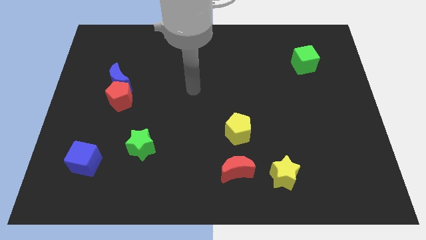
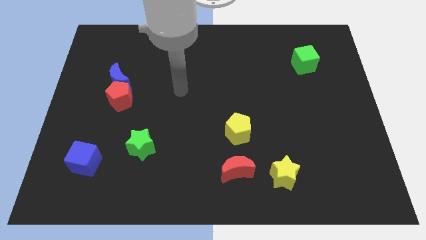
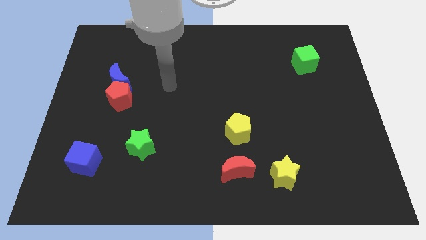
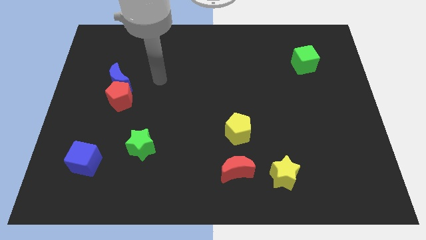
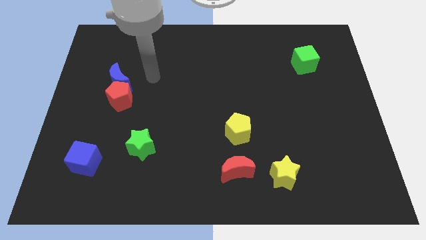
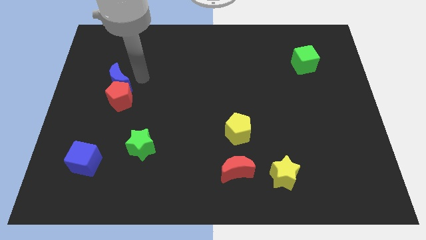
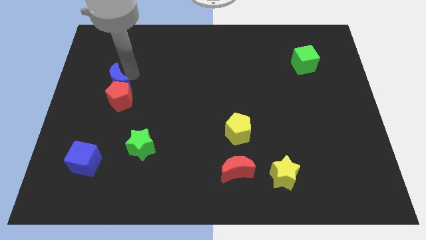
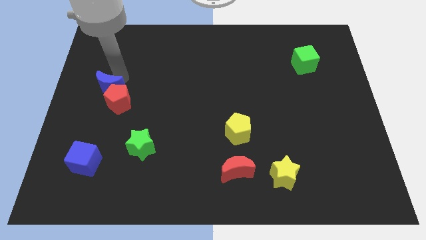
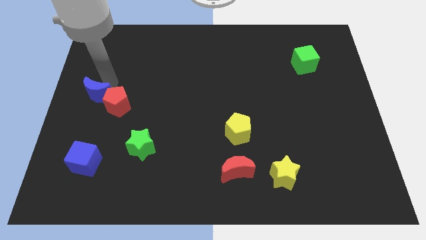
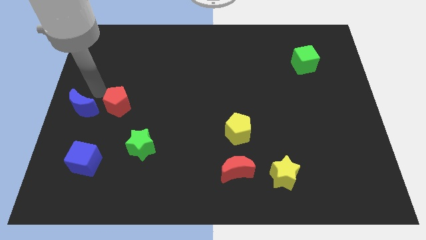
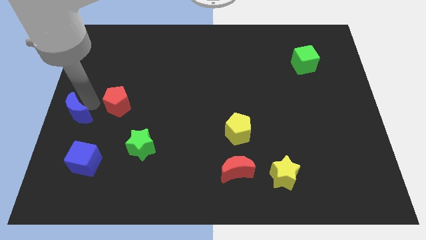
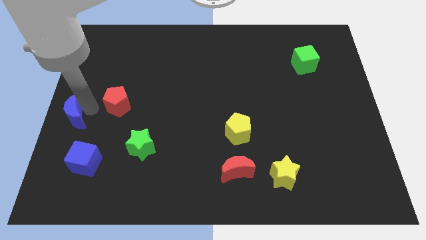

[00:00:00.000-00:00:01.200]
pull the red pentagon apart from the blue moon

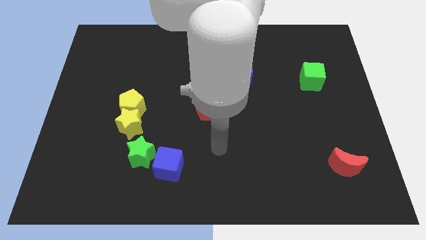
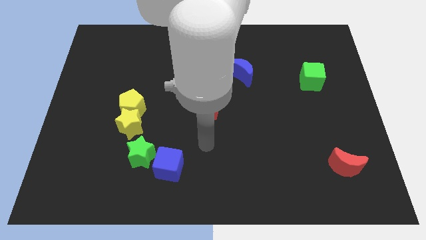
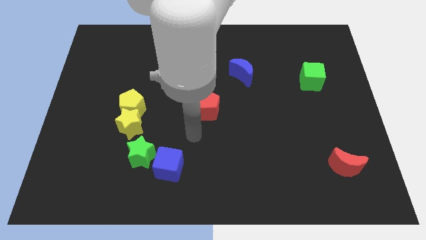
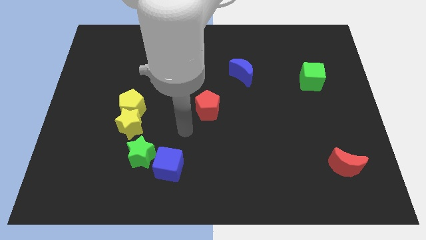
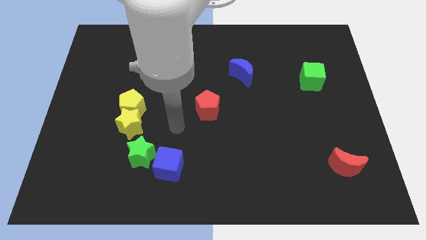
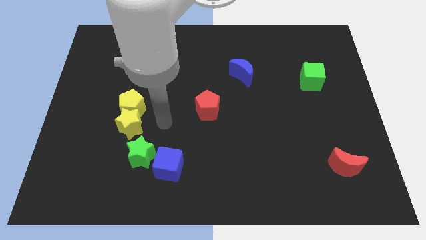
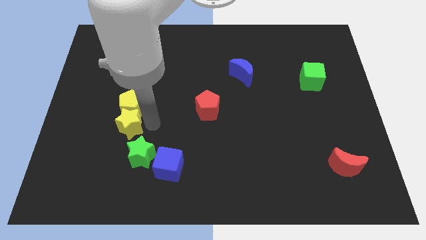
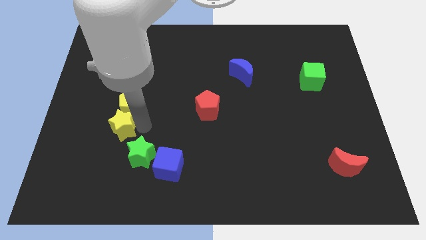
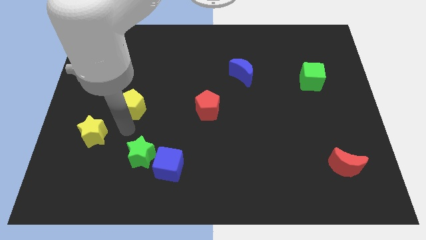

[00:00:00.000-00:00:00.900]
move the yellow pentagon away from the yellow star

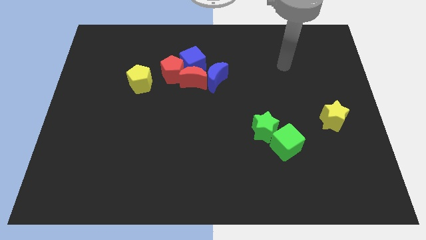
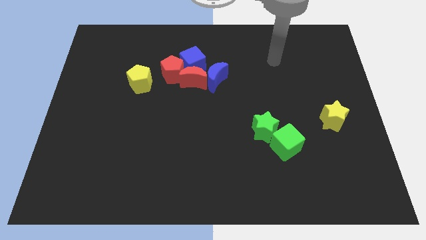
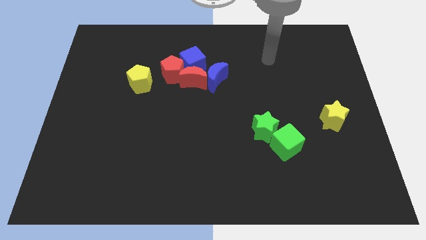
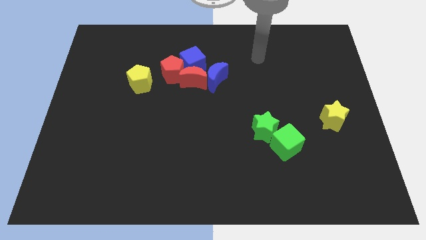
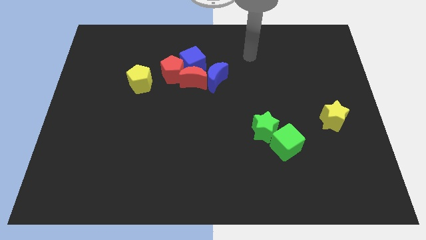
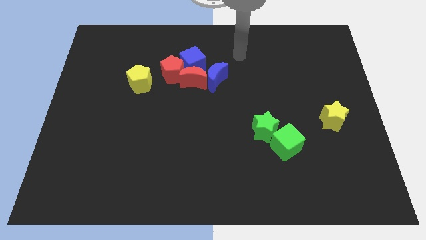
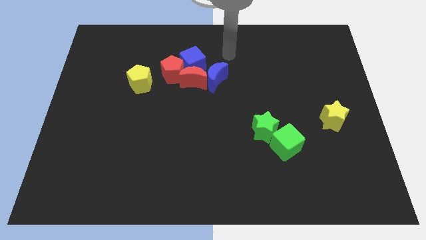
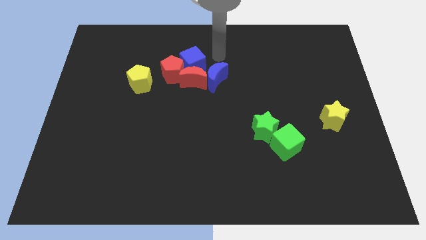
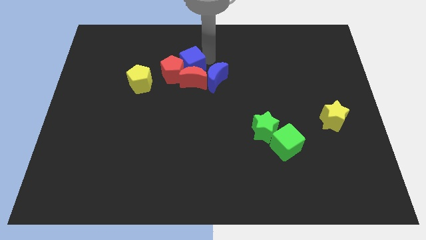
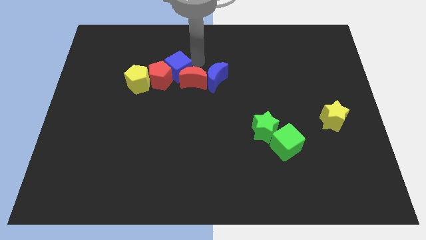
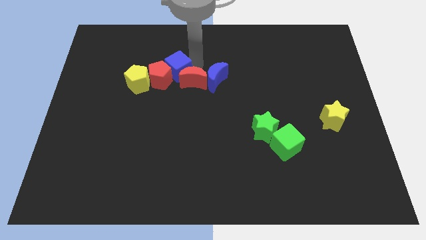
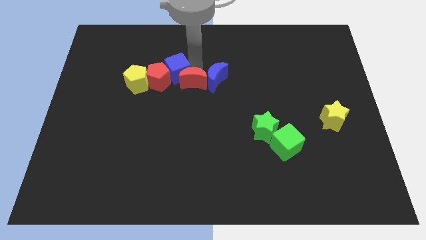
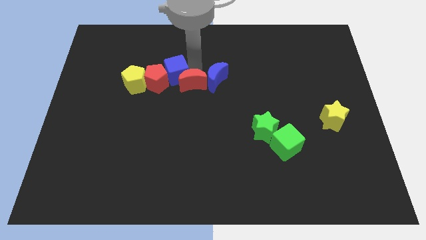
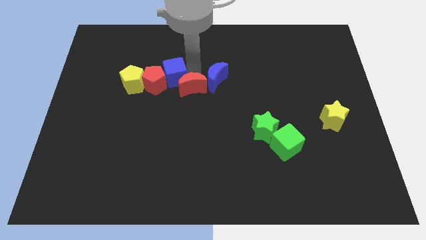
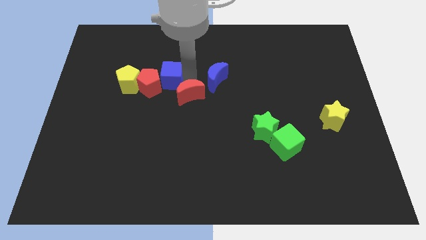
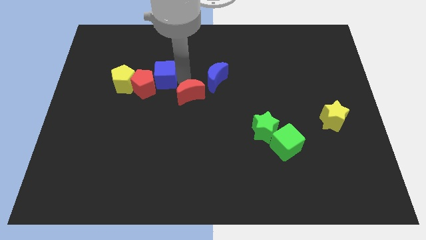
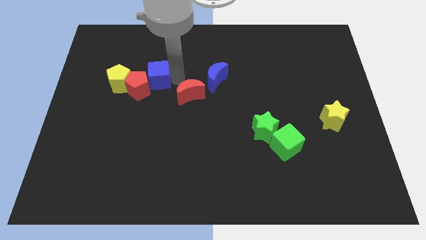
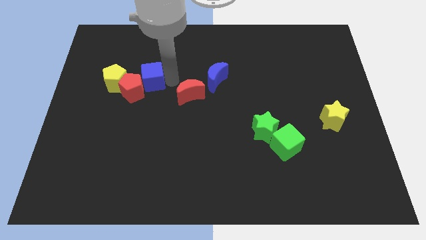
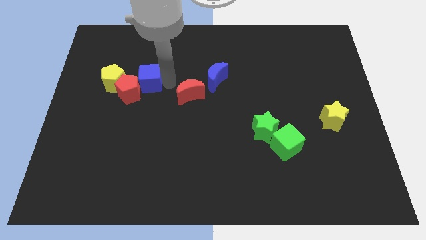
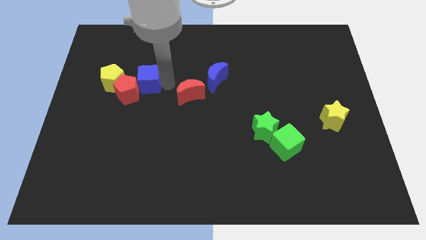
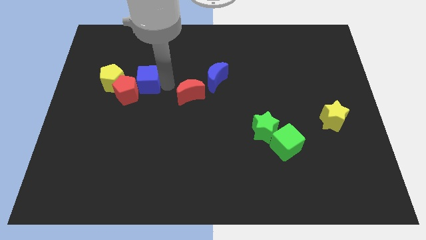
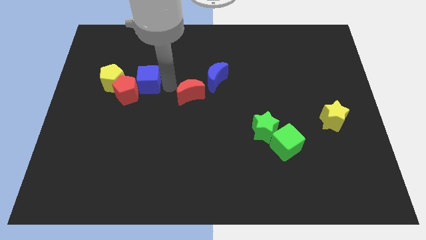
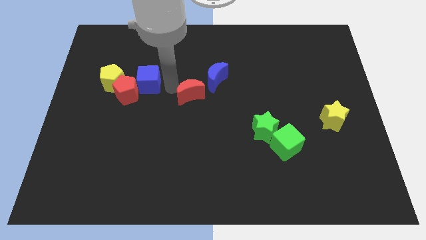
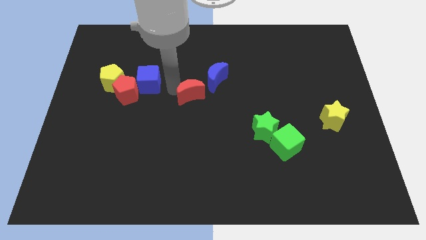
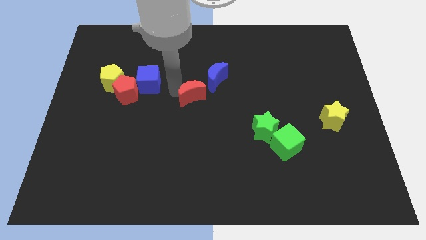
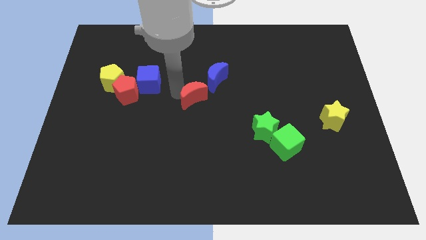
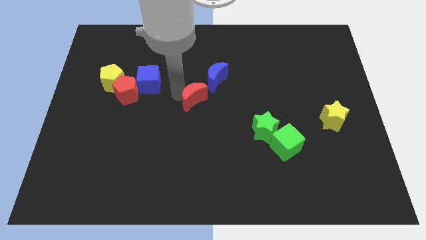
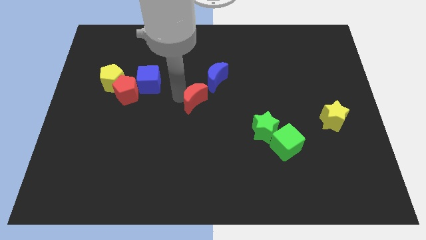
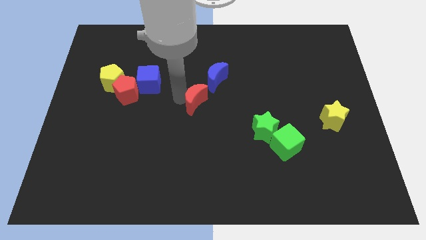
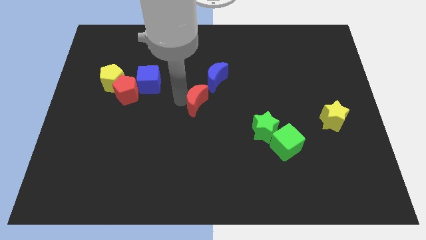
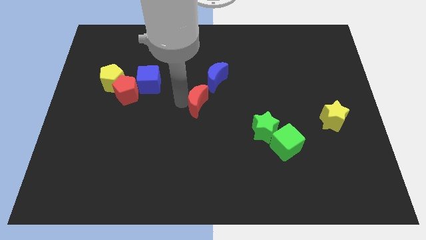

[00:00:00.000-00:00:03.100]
move the red moon away from the blue moon, blue cube, and red pentagon

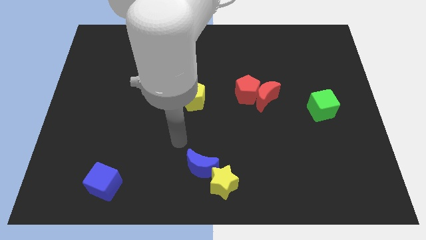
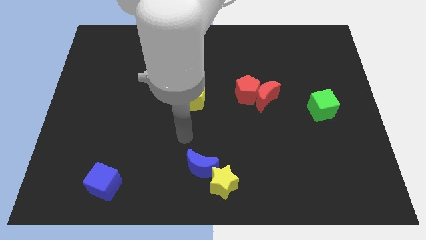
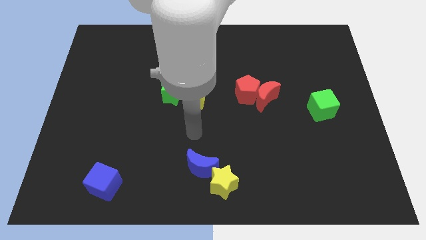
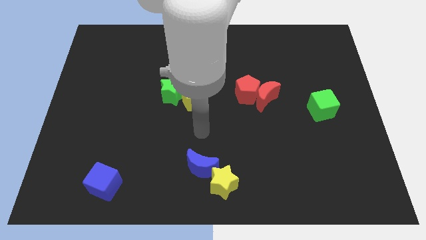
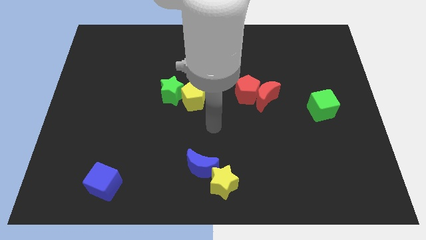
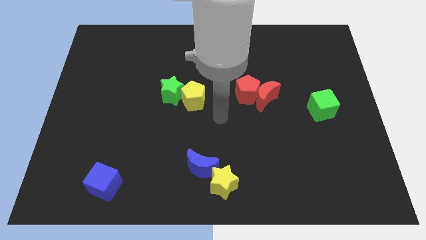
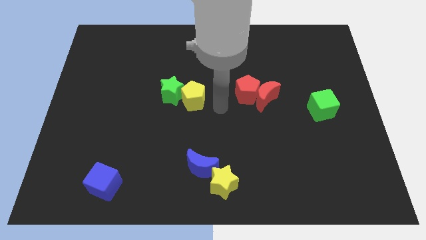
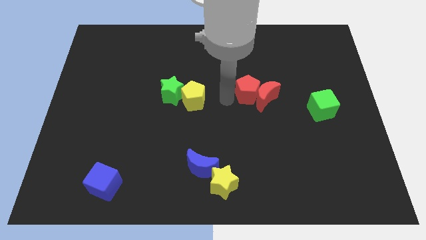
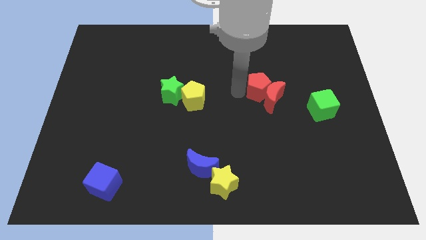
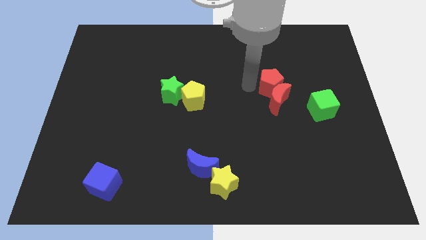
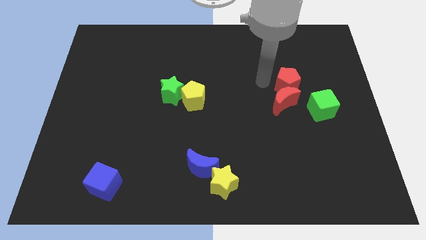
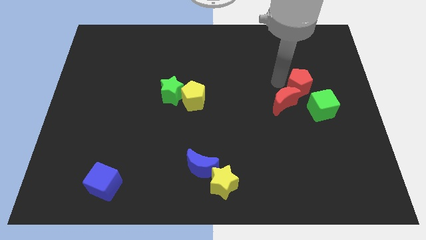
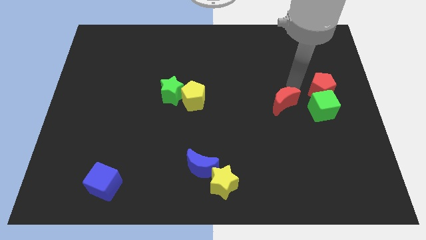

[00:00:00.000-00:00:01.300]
pull the red moon apart from the red pentagon

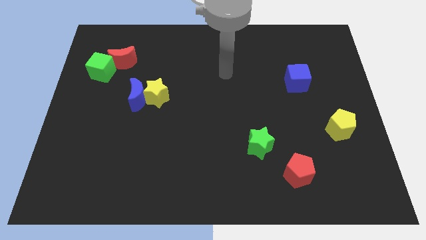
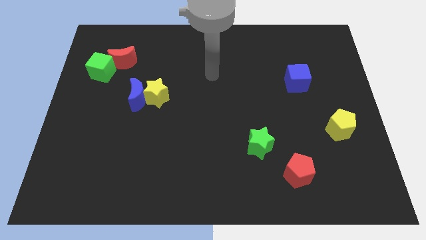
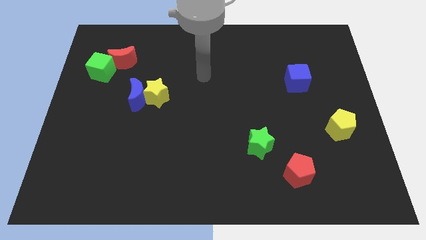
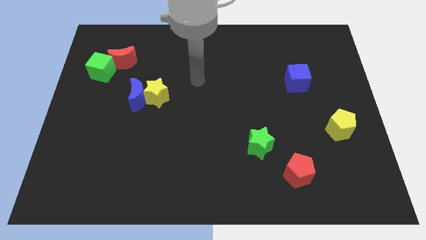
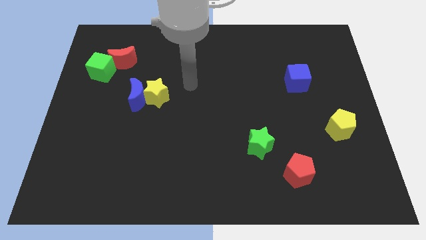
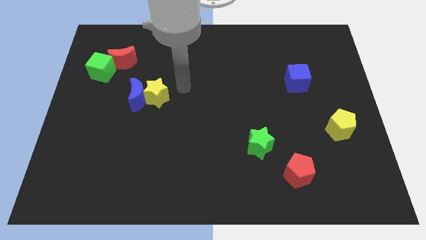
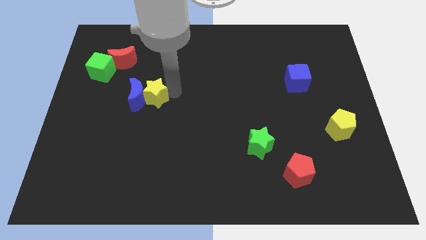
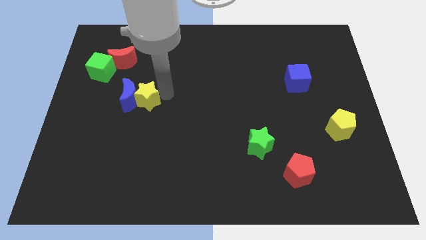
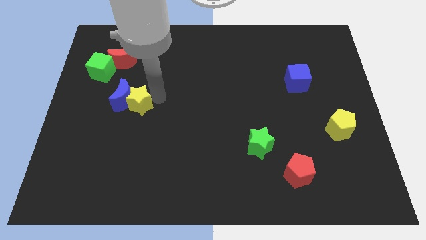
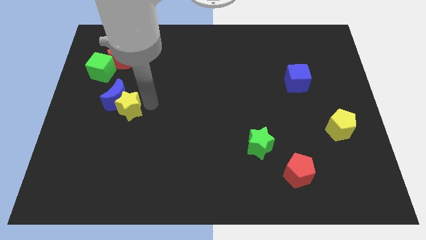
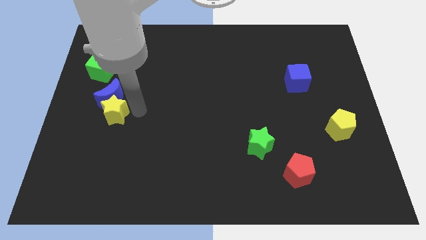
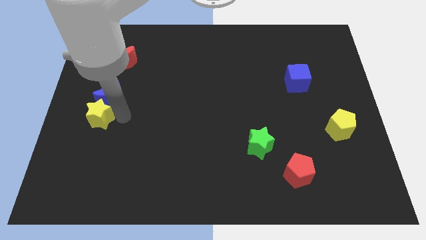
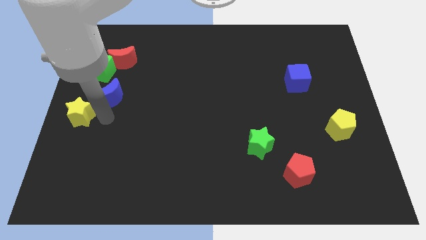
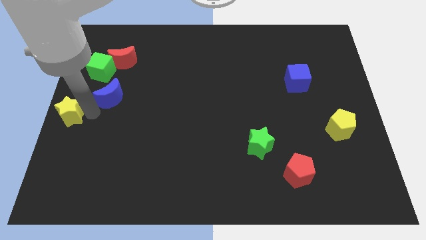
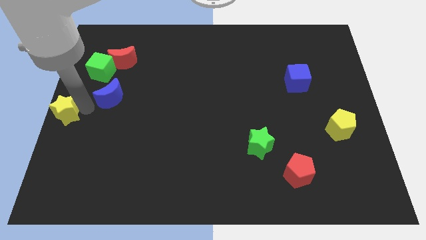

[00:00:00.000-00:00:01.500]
pull the blue moon apart from the yellow star

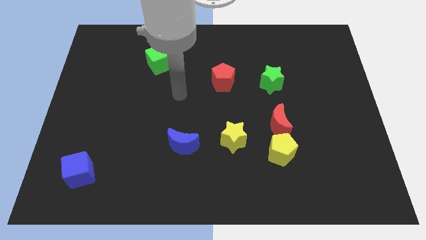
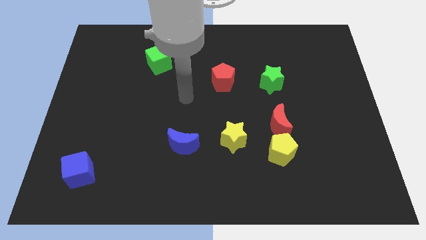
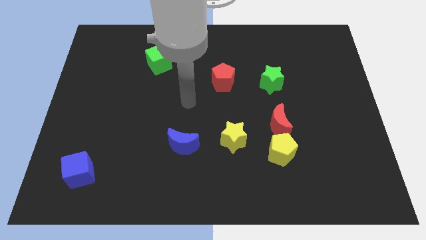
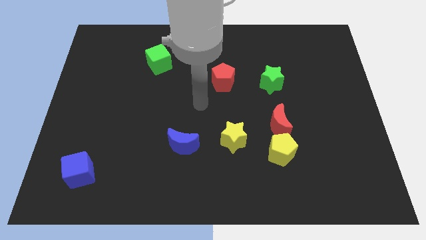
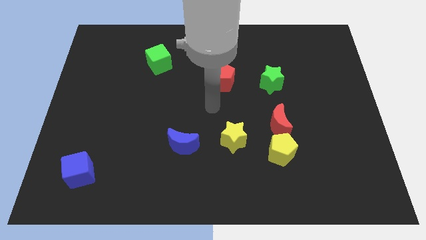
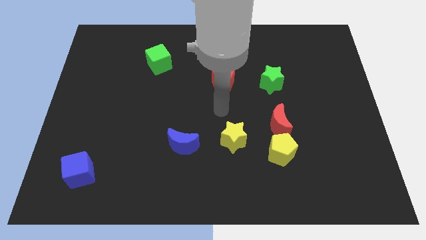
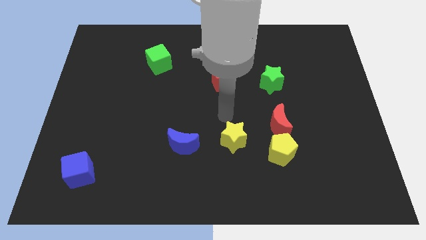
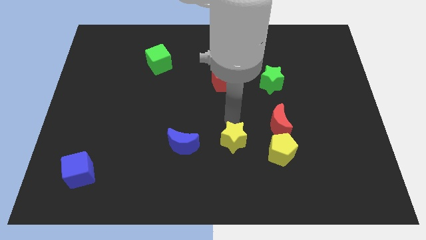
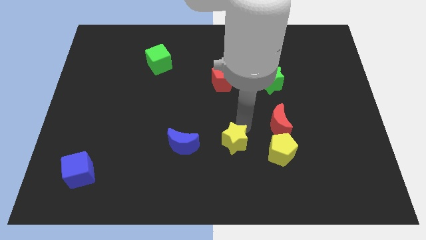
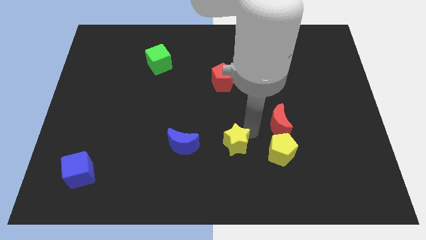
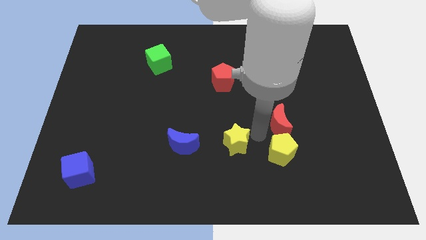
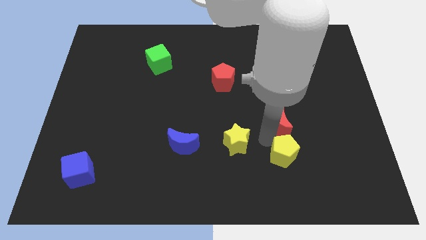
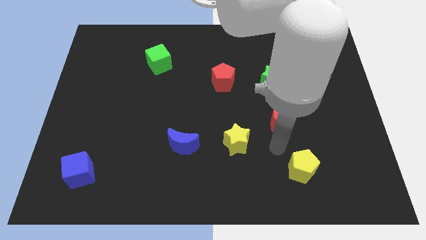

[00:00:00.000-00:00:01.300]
move the red moon away from the yellow pentagon
